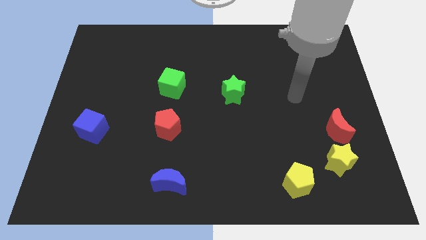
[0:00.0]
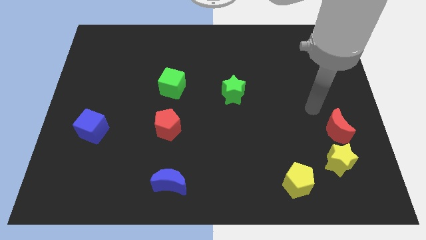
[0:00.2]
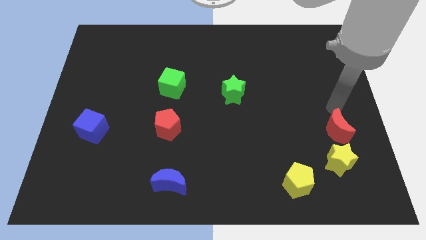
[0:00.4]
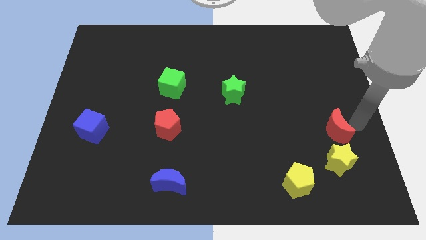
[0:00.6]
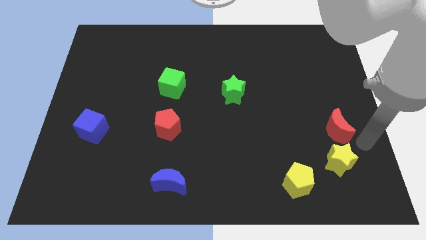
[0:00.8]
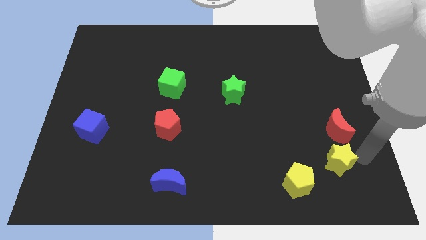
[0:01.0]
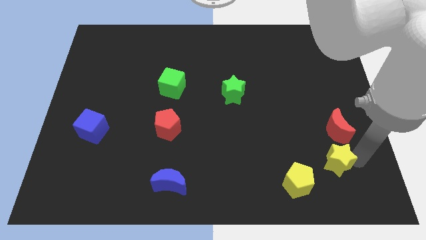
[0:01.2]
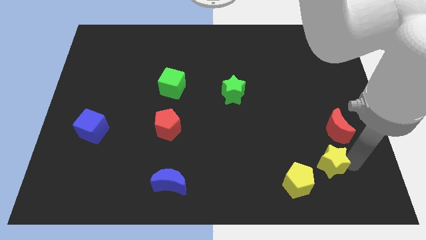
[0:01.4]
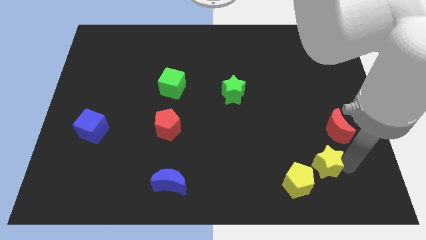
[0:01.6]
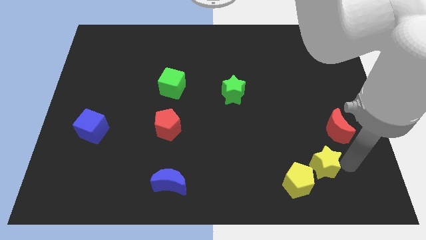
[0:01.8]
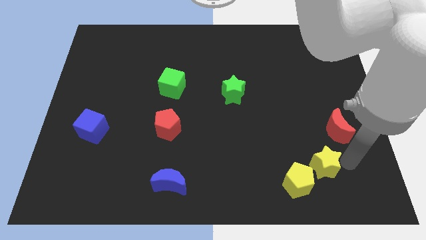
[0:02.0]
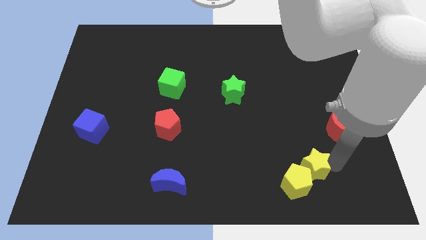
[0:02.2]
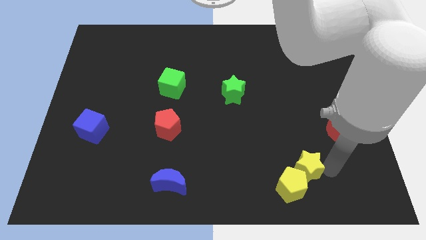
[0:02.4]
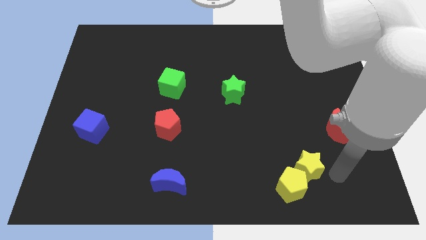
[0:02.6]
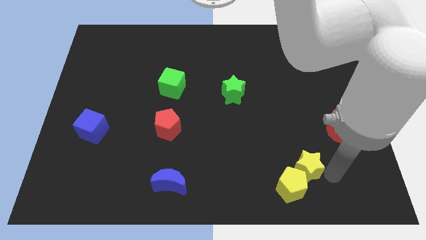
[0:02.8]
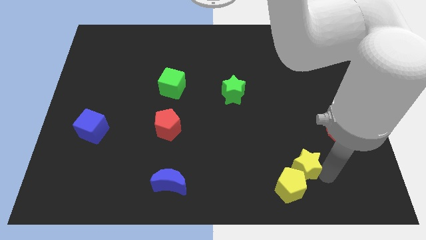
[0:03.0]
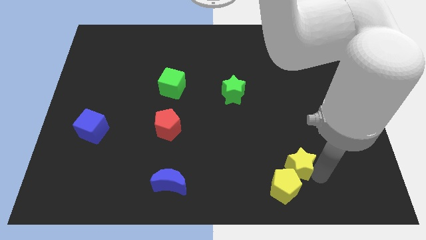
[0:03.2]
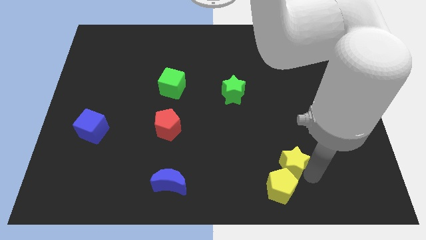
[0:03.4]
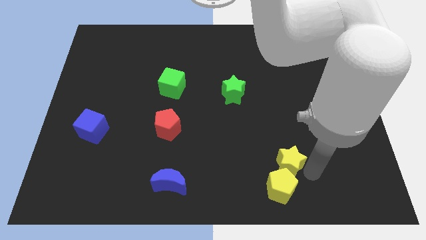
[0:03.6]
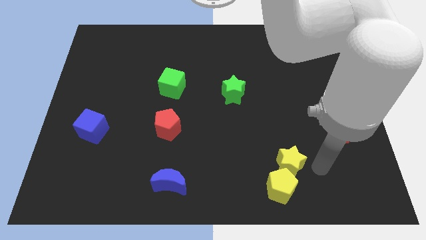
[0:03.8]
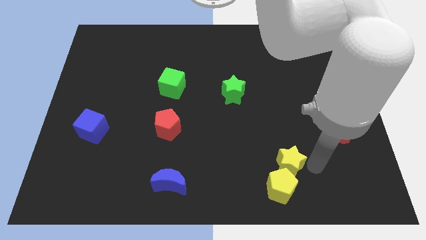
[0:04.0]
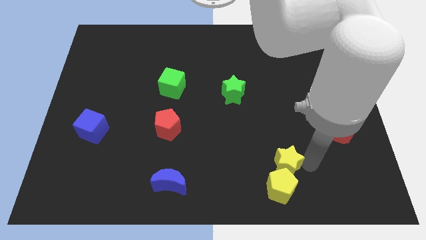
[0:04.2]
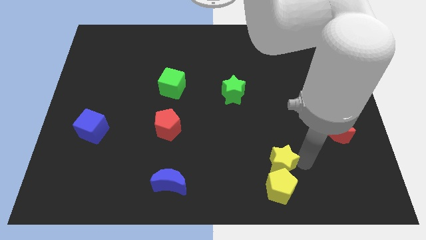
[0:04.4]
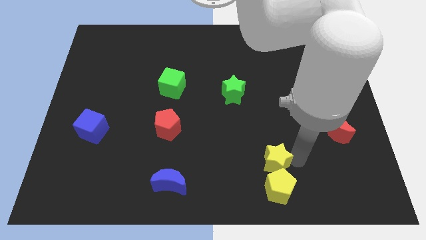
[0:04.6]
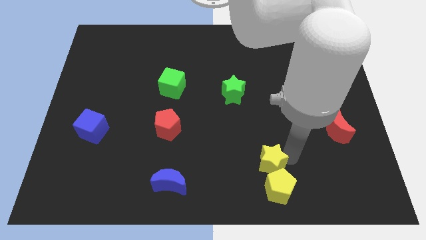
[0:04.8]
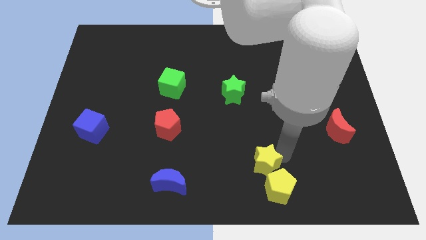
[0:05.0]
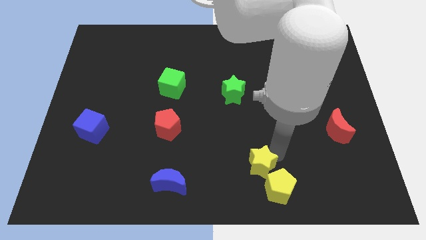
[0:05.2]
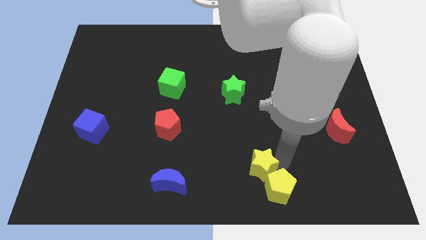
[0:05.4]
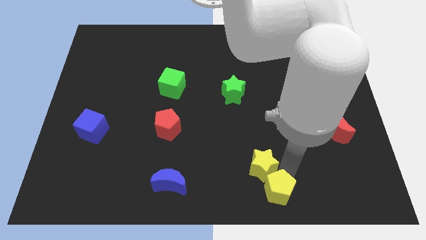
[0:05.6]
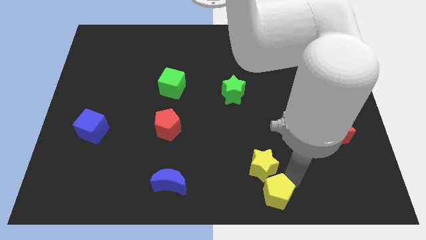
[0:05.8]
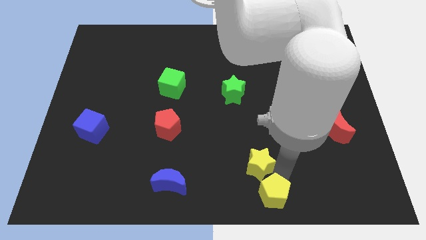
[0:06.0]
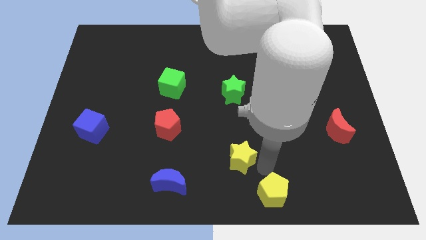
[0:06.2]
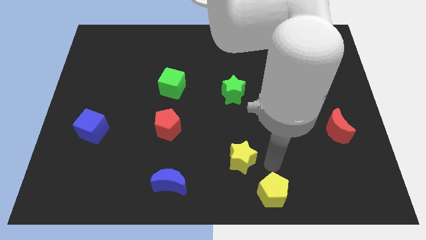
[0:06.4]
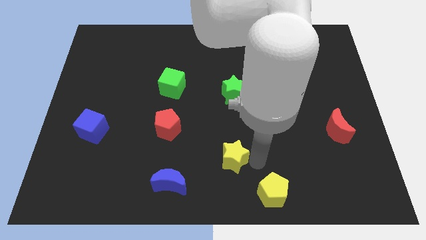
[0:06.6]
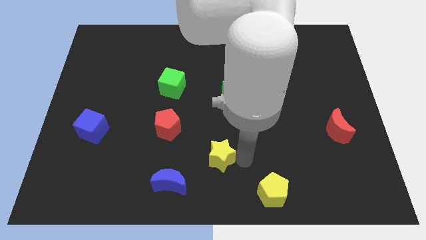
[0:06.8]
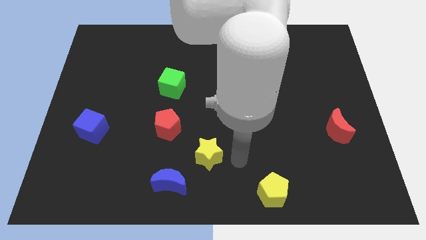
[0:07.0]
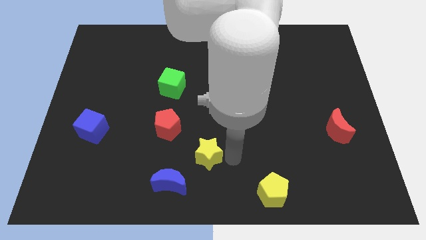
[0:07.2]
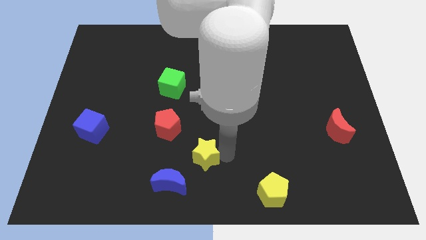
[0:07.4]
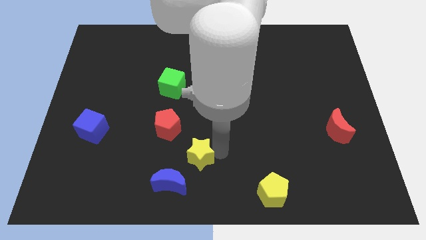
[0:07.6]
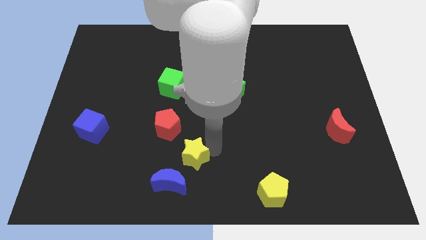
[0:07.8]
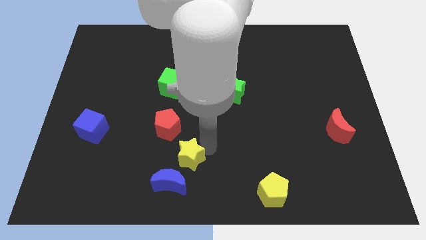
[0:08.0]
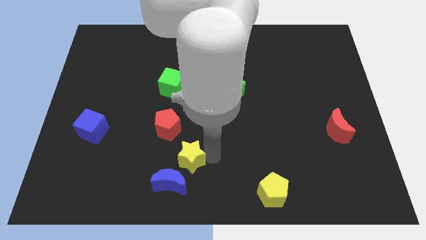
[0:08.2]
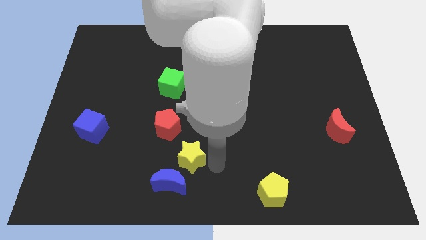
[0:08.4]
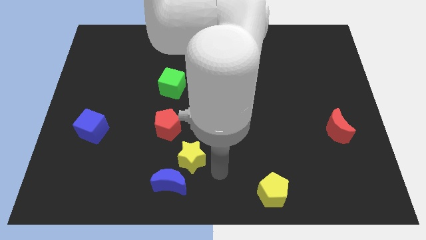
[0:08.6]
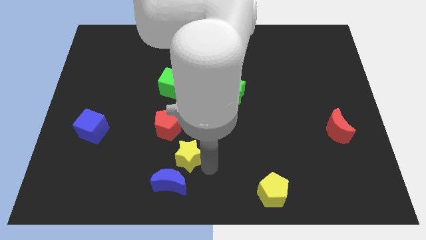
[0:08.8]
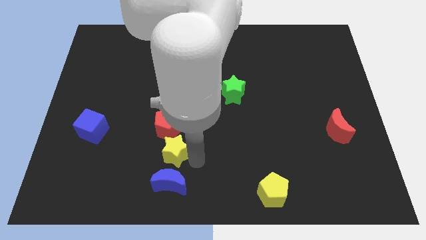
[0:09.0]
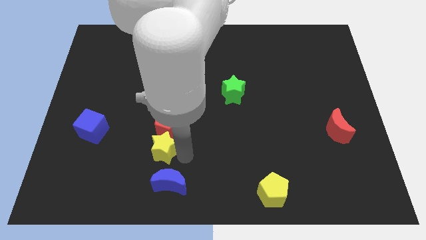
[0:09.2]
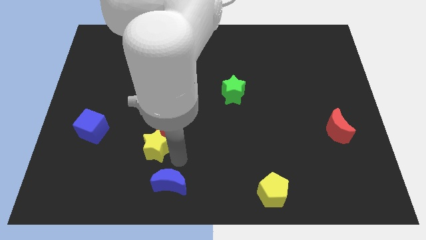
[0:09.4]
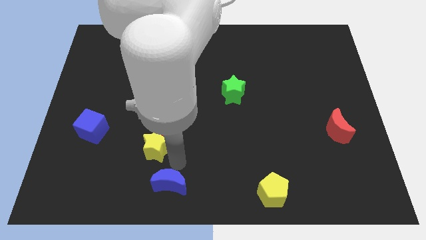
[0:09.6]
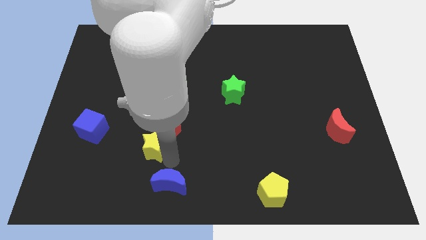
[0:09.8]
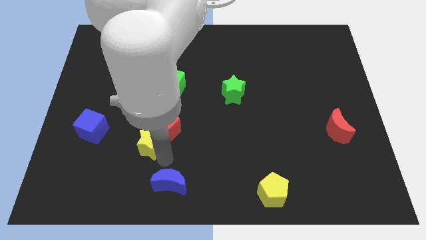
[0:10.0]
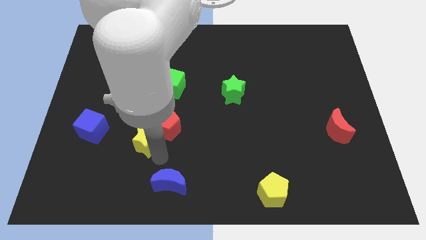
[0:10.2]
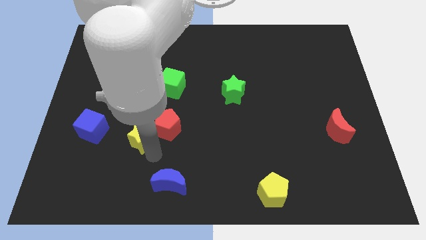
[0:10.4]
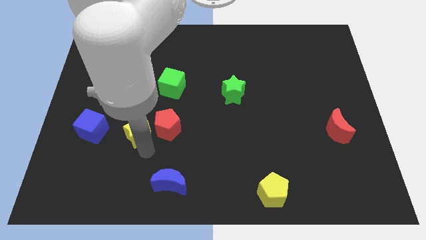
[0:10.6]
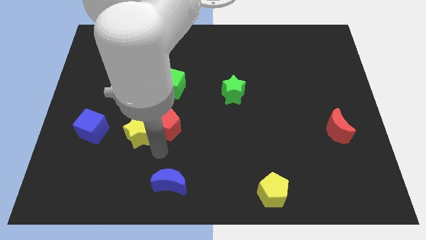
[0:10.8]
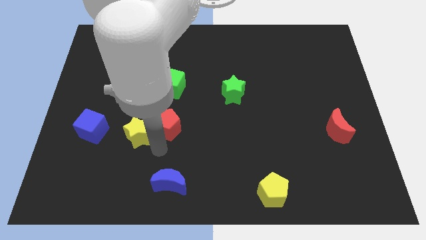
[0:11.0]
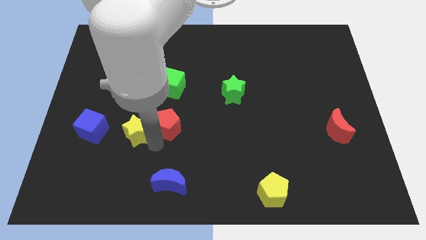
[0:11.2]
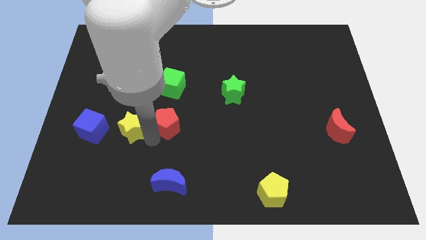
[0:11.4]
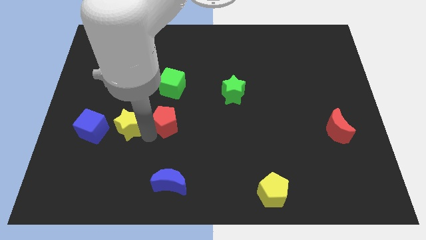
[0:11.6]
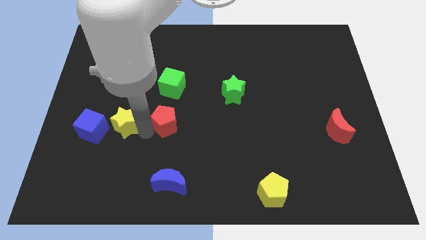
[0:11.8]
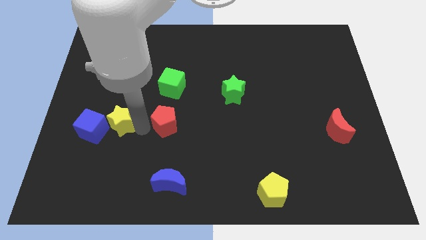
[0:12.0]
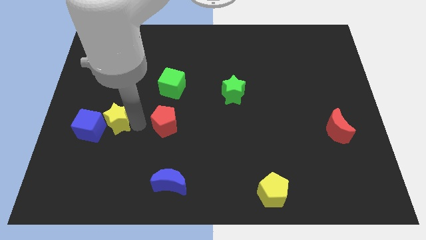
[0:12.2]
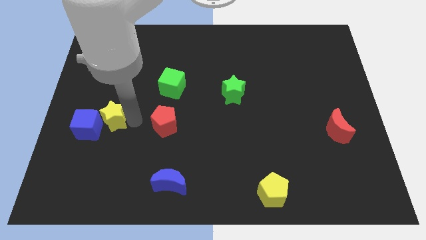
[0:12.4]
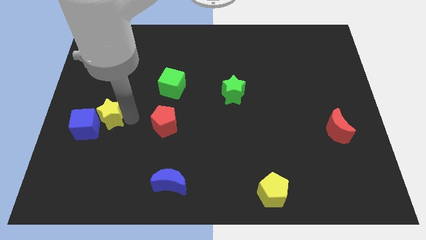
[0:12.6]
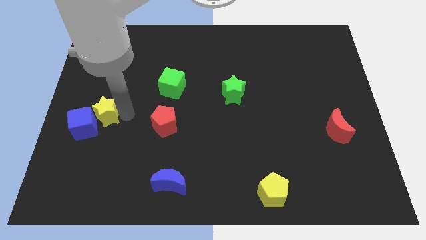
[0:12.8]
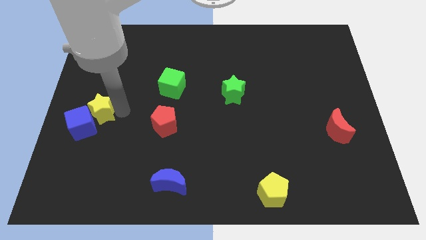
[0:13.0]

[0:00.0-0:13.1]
slide the yellow star to the left side
